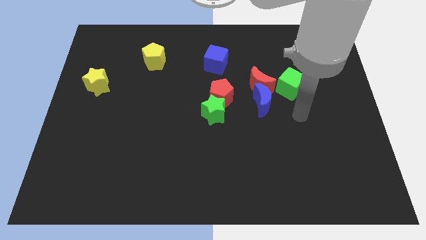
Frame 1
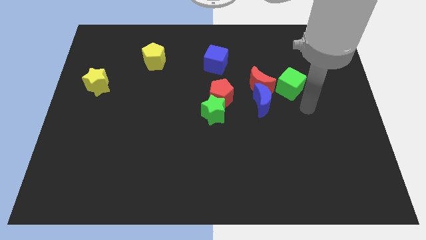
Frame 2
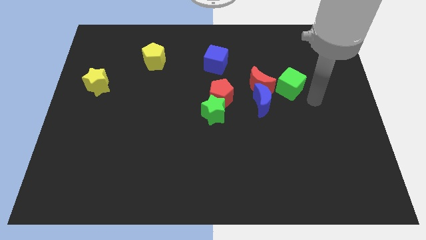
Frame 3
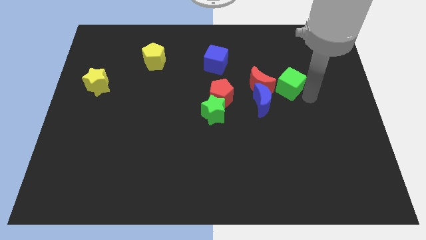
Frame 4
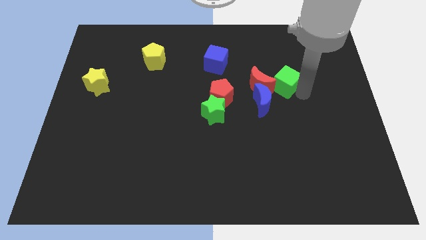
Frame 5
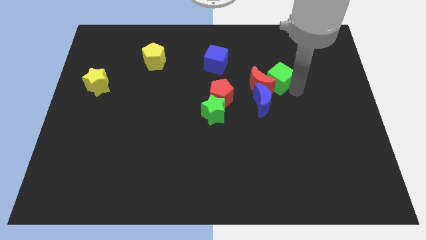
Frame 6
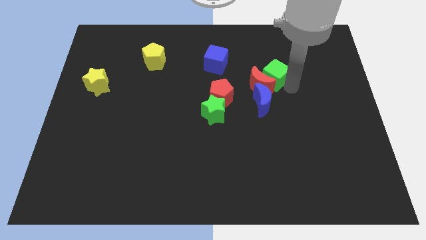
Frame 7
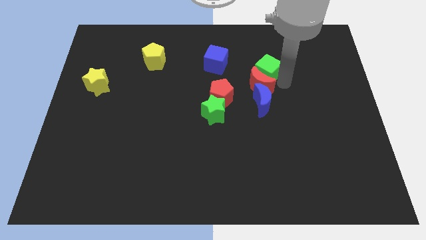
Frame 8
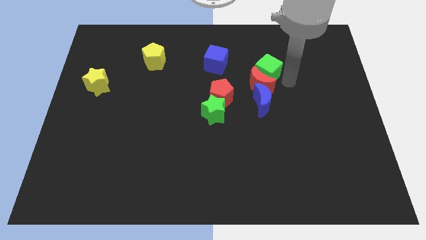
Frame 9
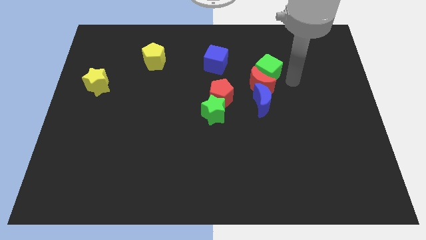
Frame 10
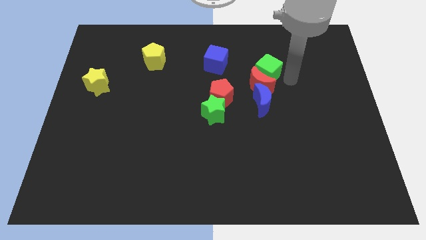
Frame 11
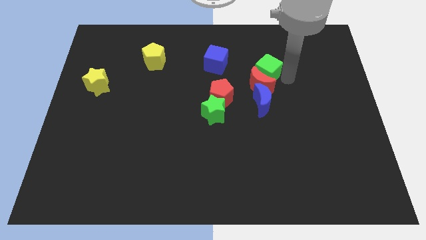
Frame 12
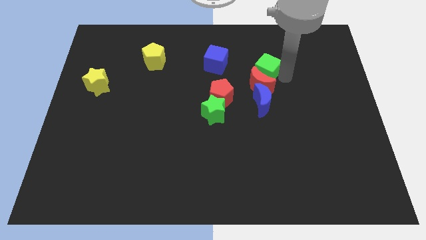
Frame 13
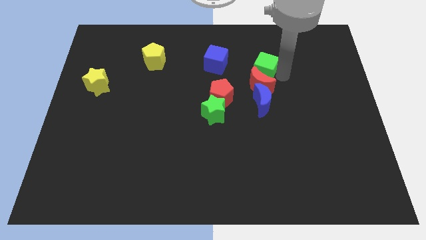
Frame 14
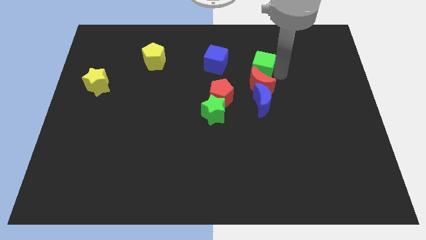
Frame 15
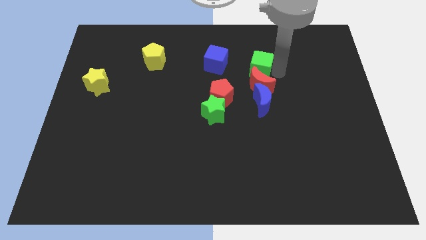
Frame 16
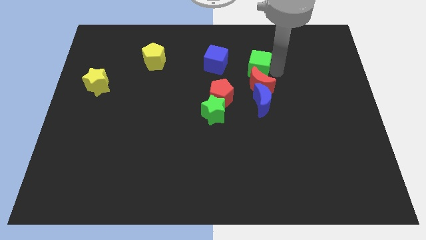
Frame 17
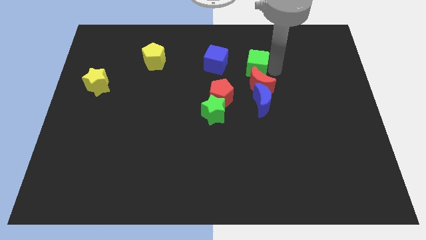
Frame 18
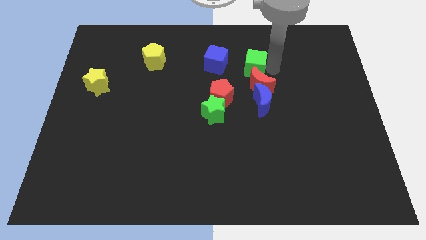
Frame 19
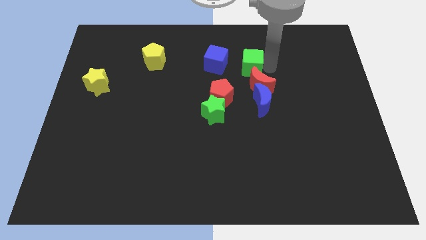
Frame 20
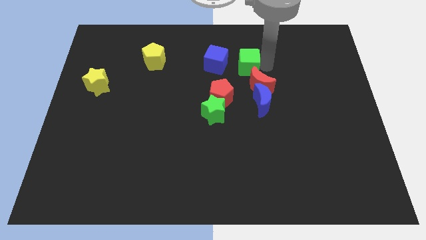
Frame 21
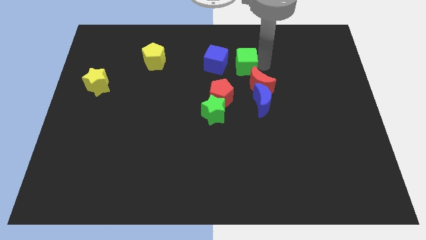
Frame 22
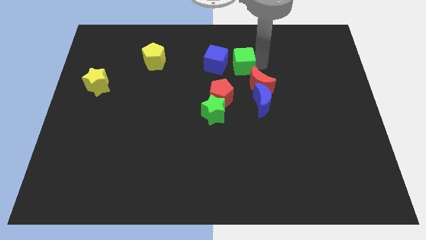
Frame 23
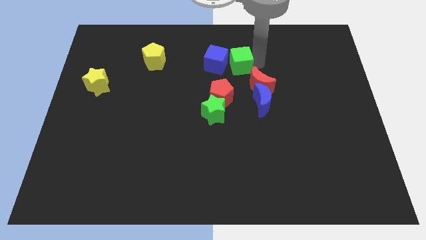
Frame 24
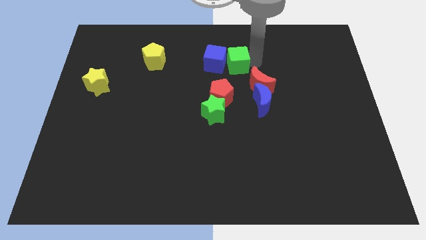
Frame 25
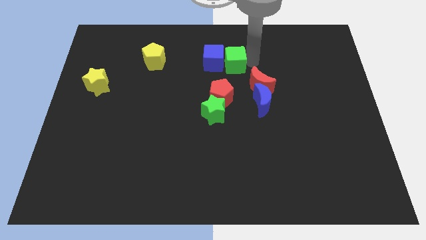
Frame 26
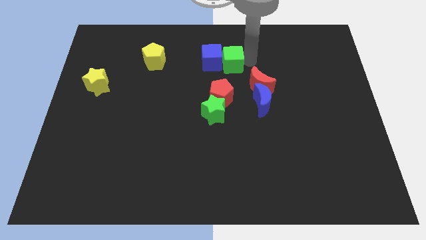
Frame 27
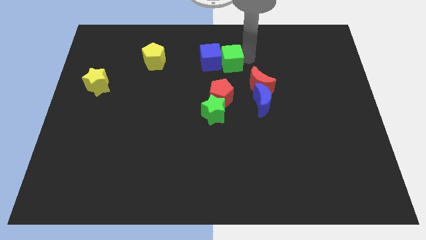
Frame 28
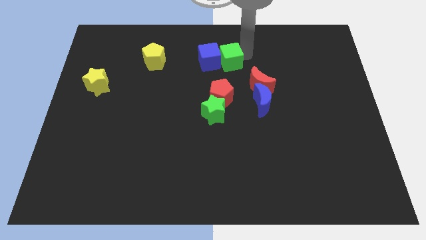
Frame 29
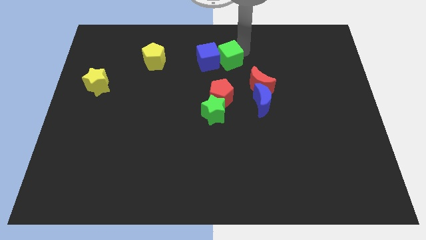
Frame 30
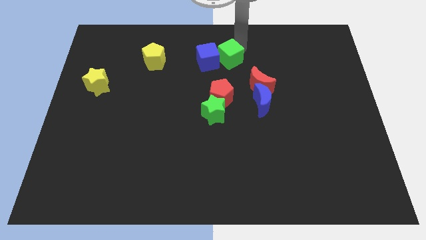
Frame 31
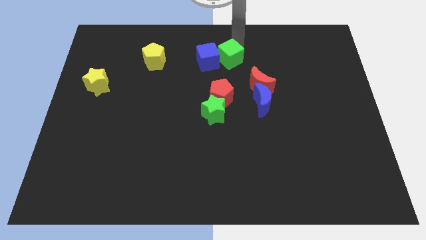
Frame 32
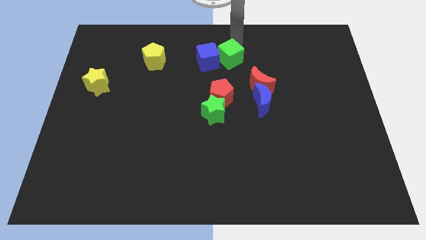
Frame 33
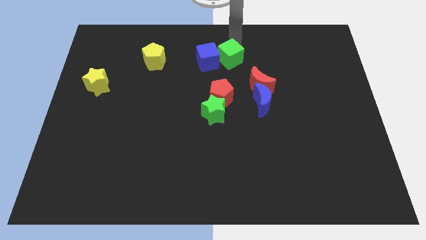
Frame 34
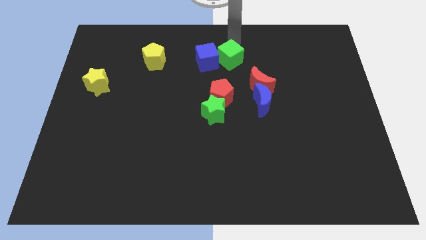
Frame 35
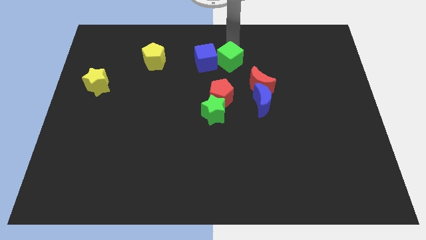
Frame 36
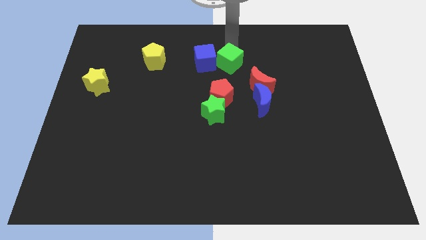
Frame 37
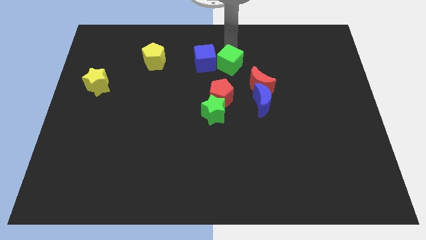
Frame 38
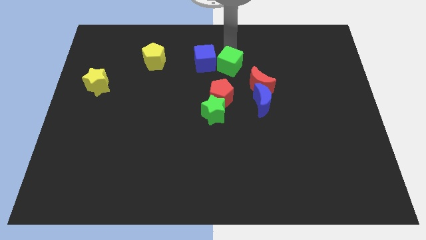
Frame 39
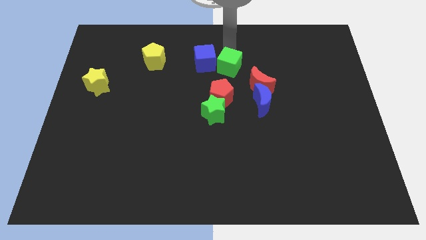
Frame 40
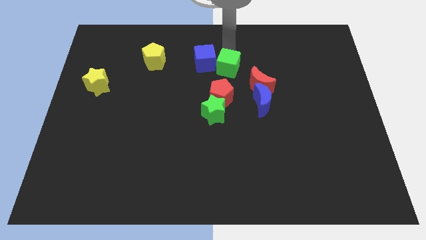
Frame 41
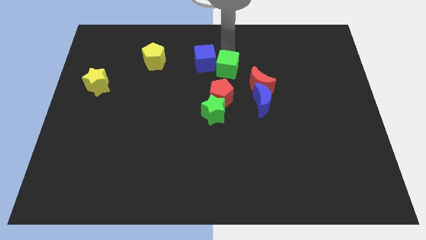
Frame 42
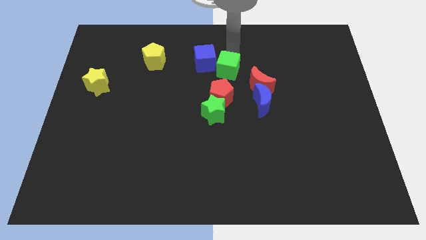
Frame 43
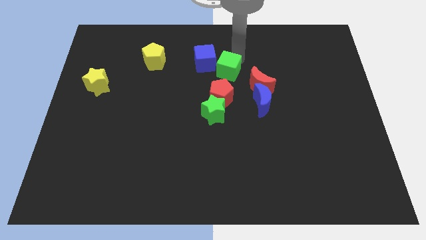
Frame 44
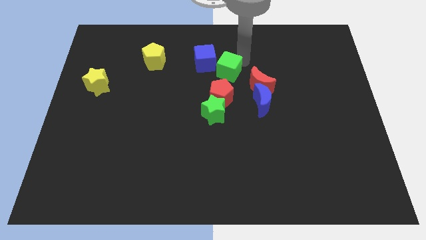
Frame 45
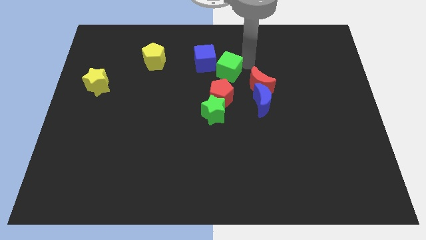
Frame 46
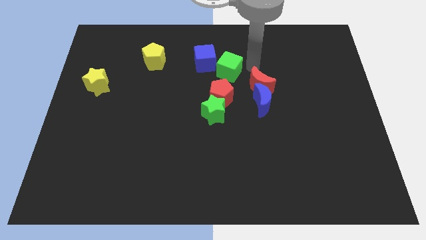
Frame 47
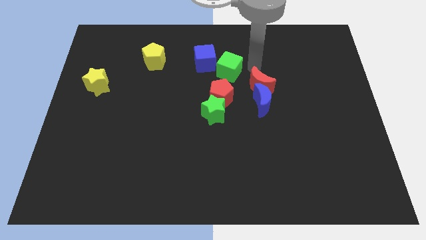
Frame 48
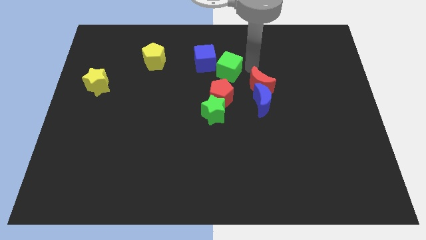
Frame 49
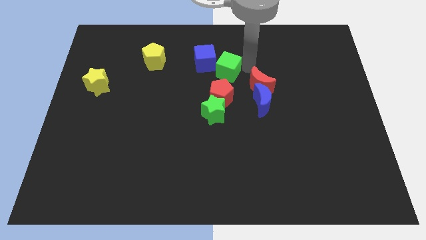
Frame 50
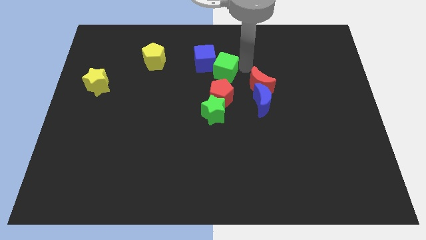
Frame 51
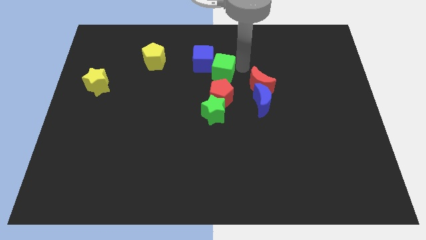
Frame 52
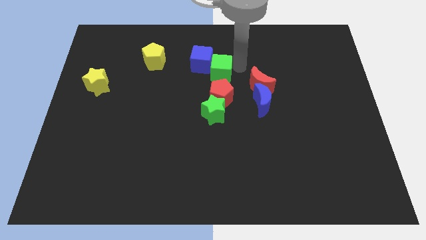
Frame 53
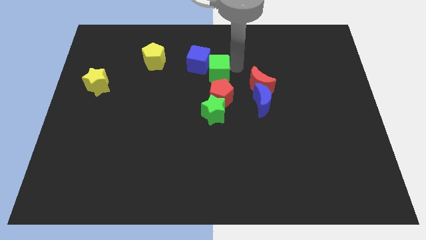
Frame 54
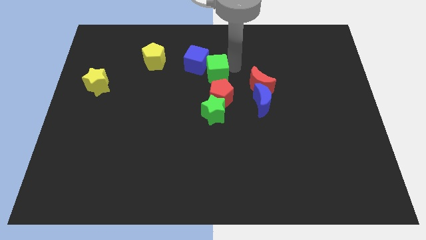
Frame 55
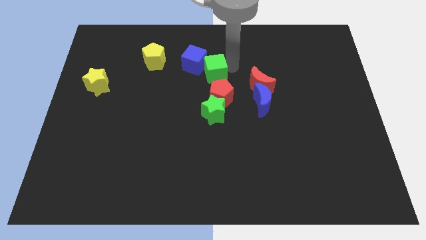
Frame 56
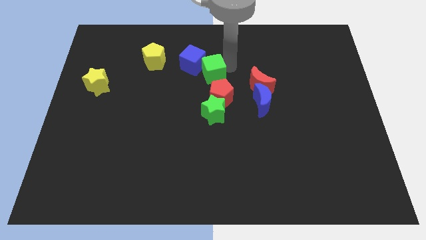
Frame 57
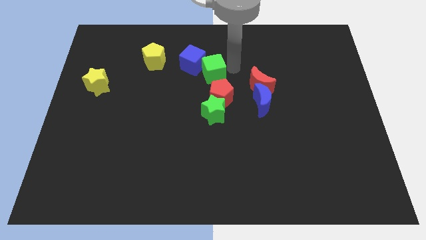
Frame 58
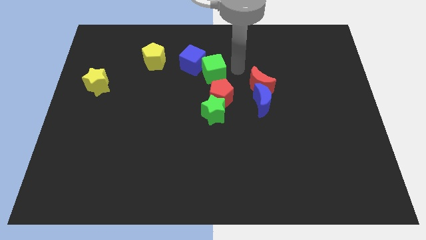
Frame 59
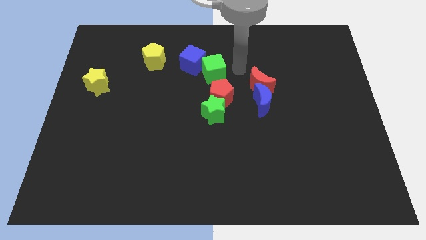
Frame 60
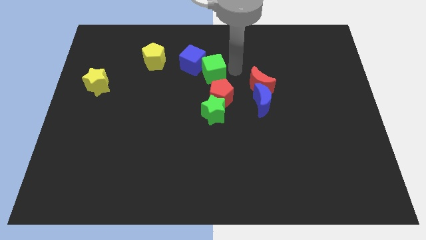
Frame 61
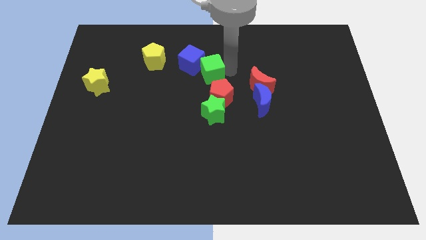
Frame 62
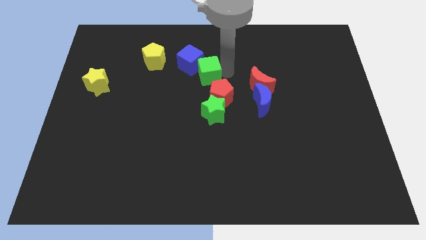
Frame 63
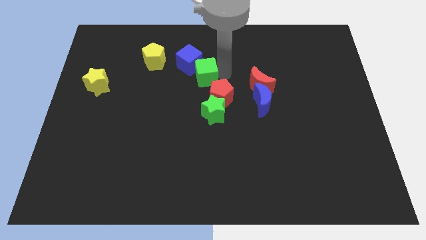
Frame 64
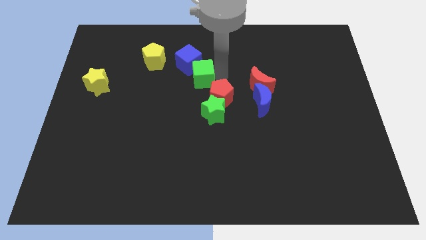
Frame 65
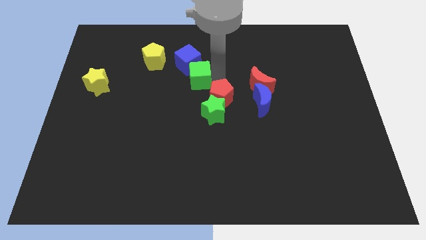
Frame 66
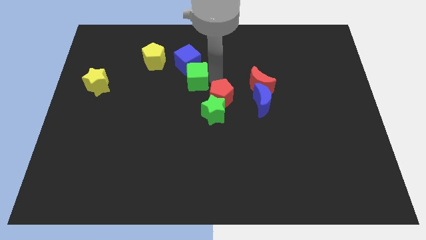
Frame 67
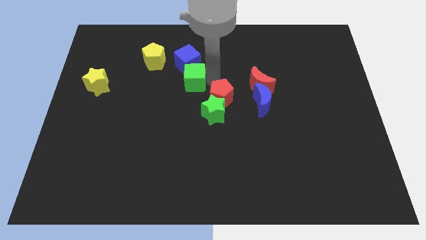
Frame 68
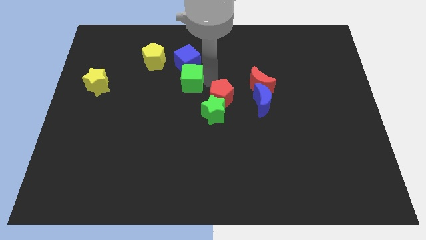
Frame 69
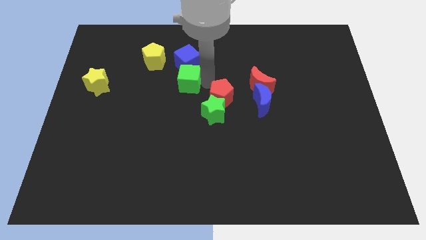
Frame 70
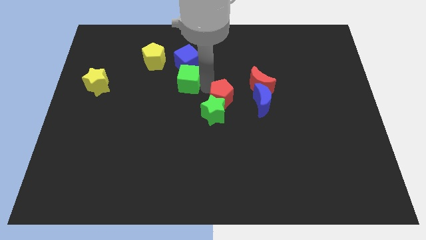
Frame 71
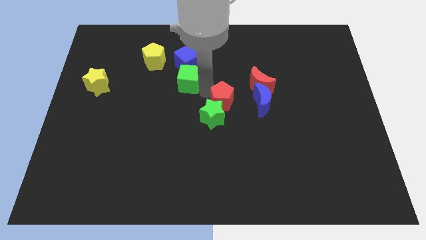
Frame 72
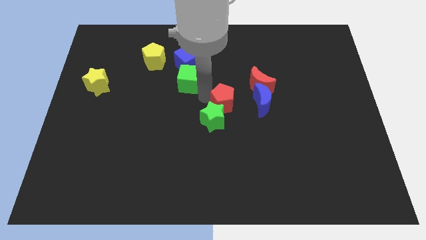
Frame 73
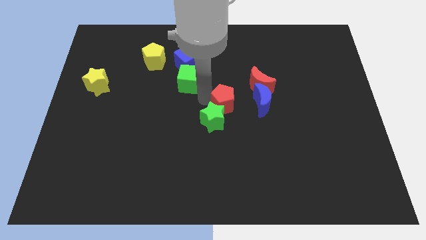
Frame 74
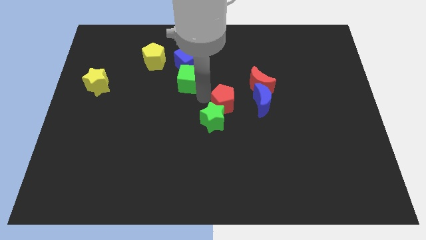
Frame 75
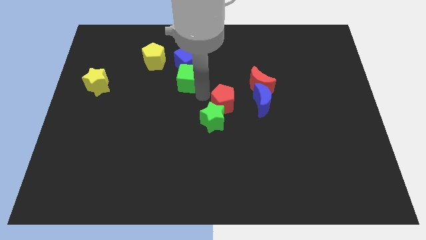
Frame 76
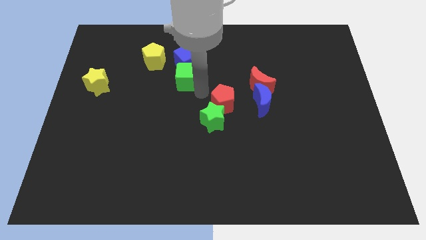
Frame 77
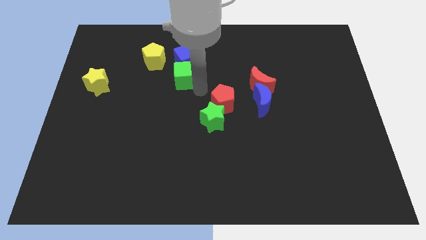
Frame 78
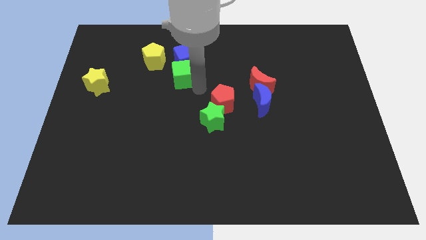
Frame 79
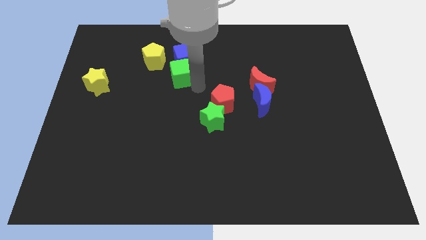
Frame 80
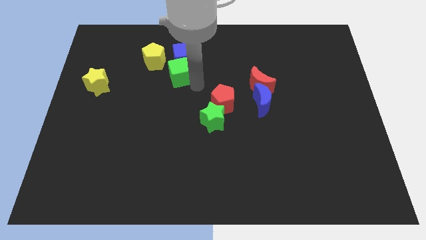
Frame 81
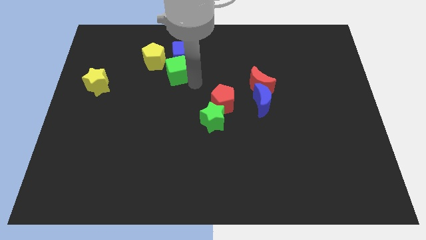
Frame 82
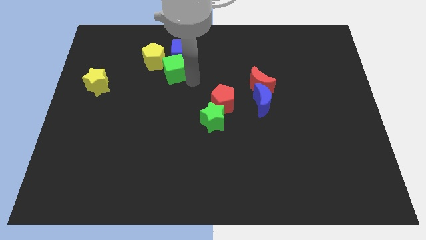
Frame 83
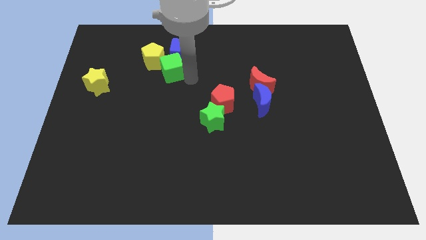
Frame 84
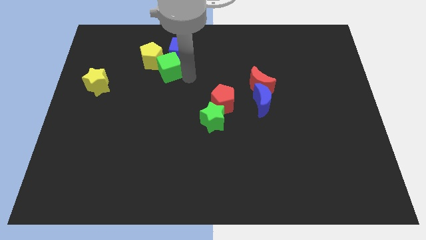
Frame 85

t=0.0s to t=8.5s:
push the green cube towards the yellow pentagon
